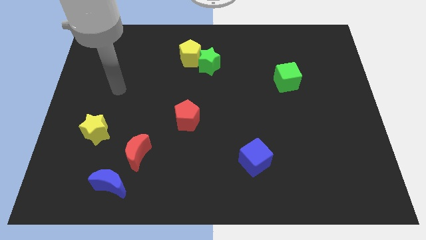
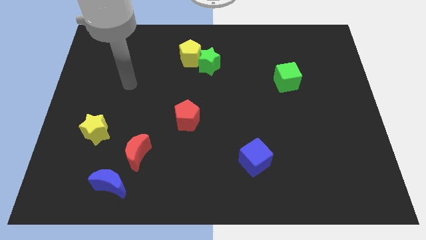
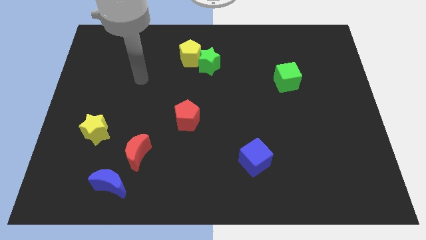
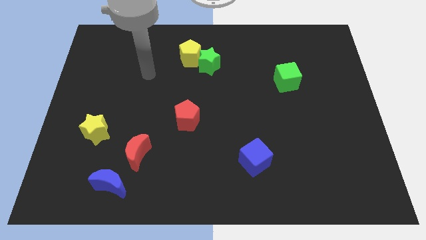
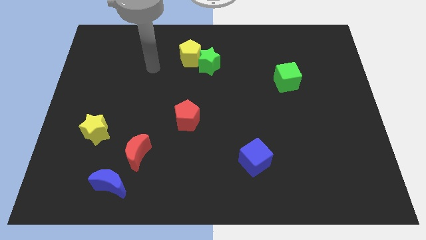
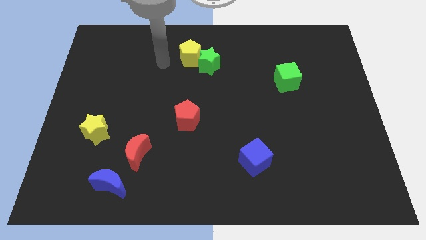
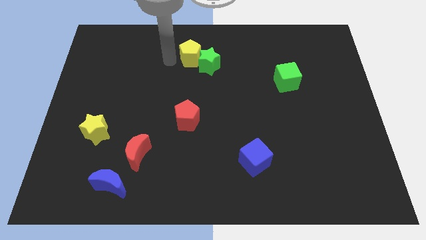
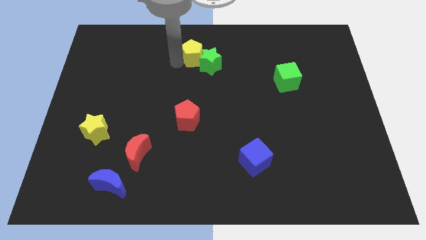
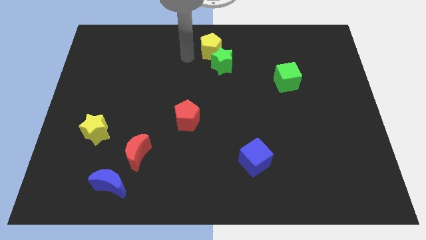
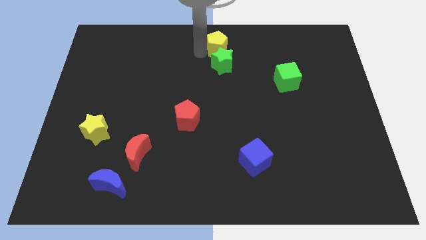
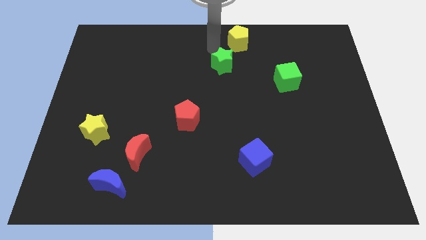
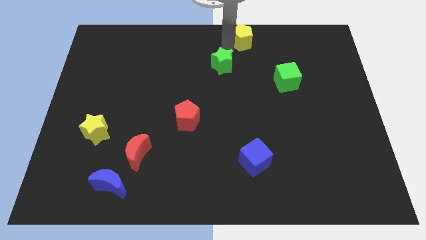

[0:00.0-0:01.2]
pull the green star apart from the yellow pentagon

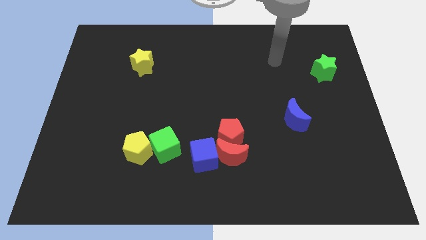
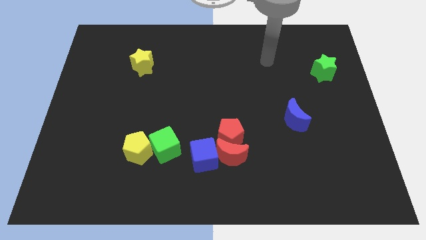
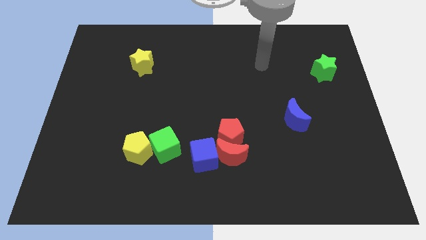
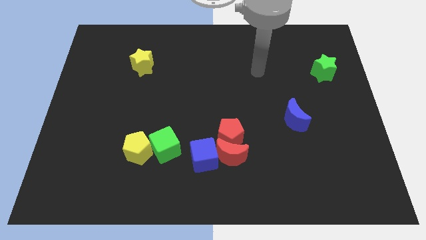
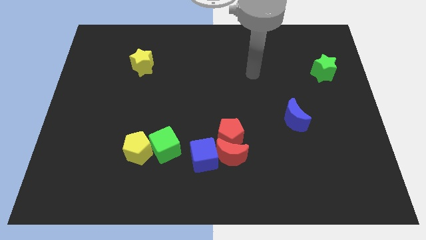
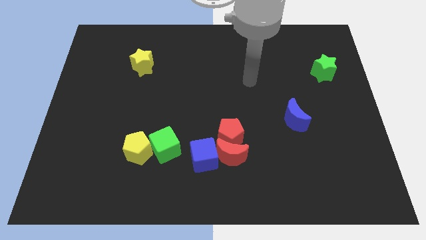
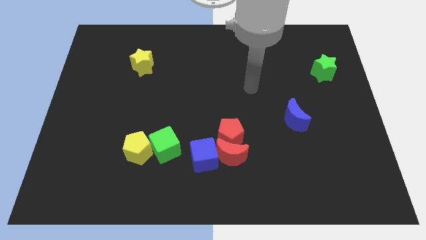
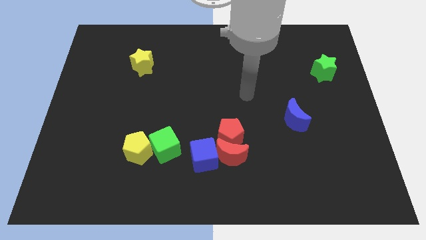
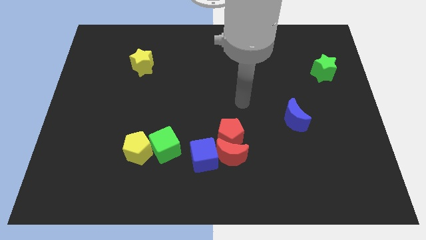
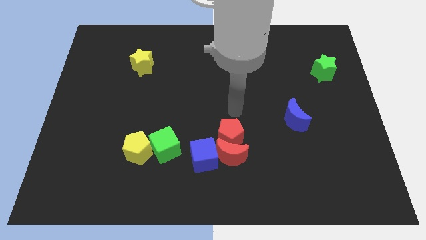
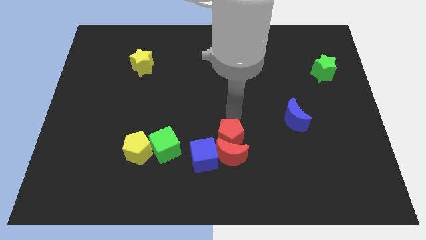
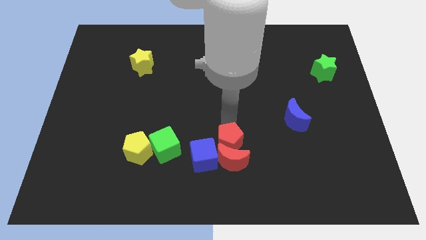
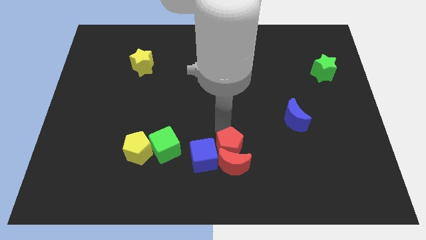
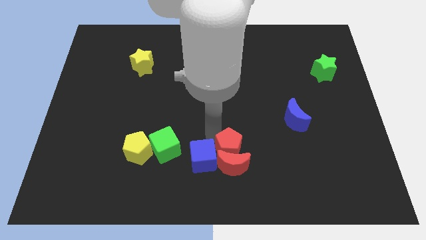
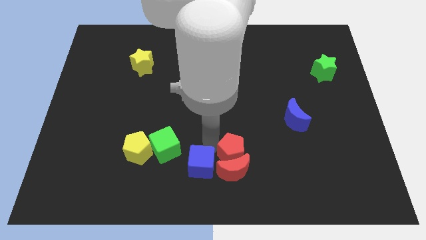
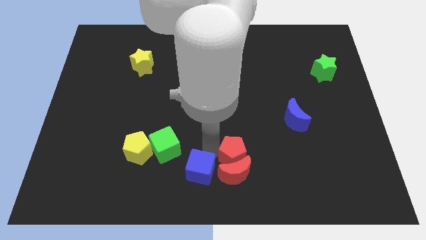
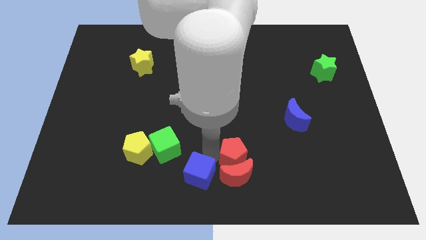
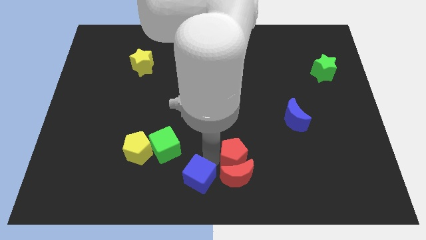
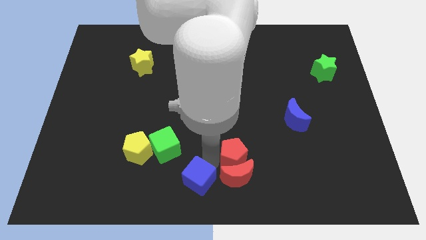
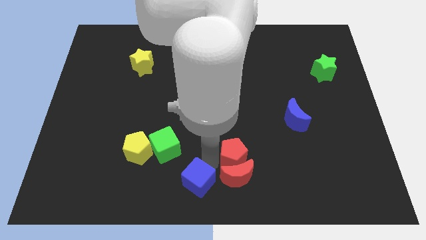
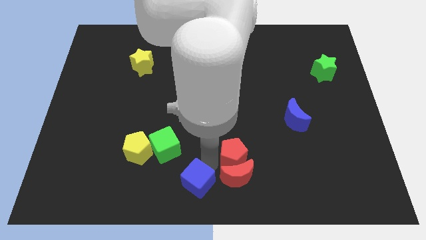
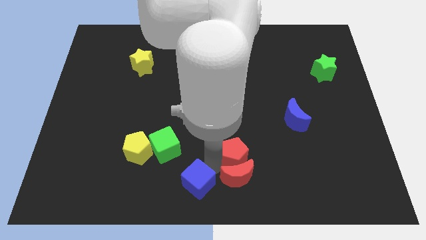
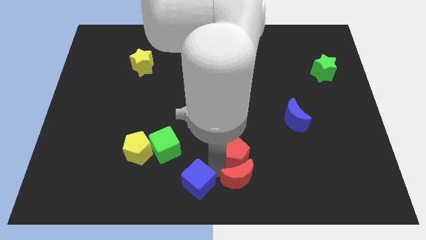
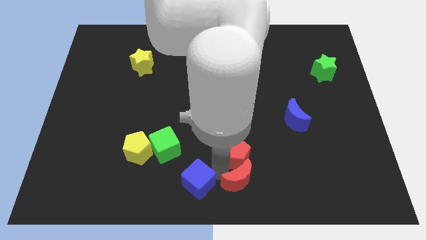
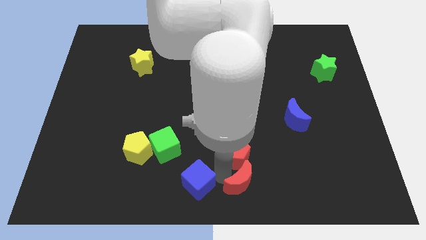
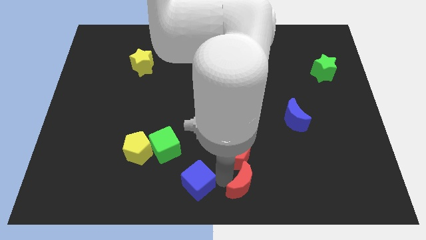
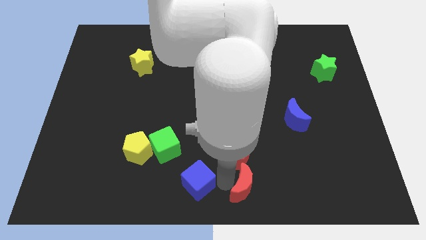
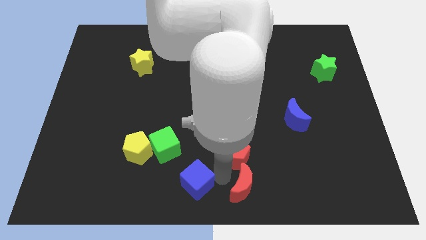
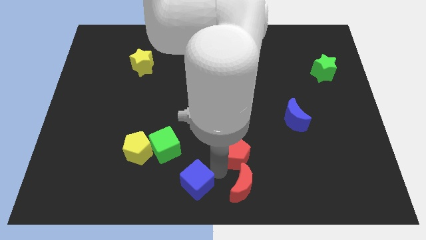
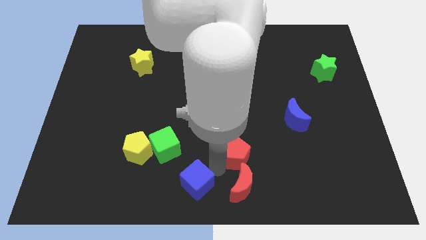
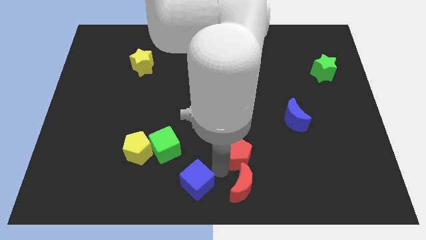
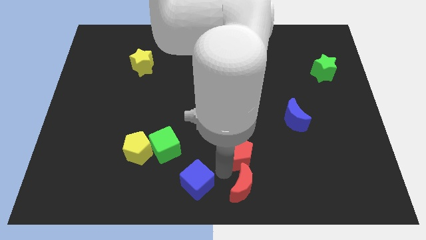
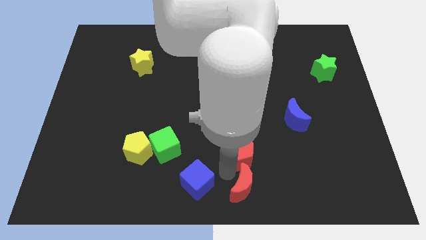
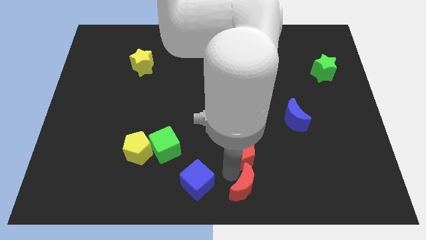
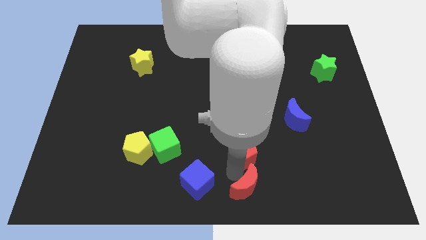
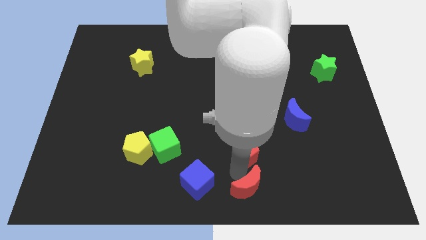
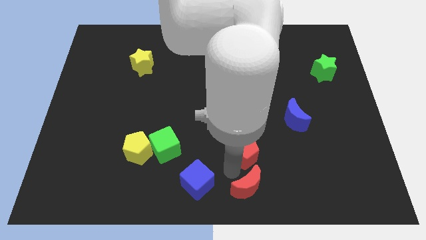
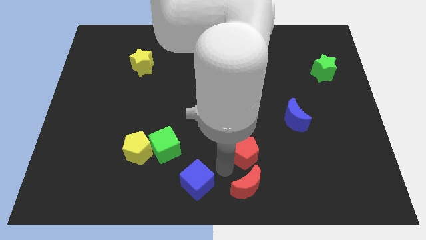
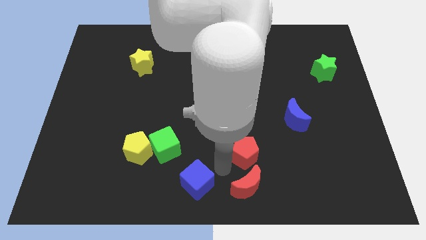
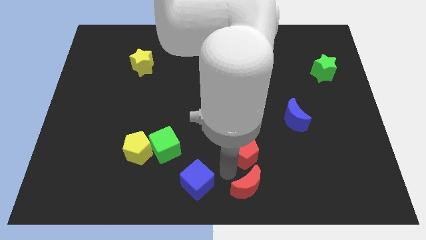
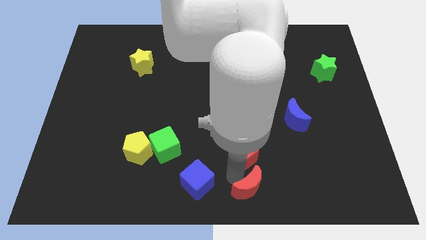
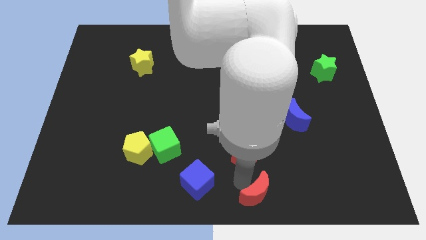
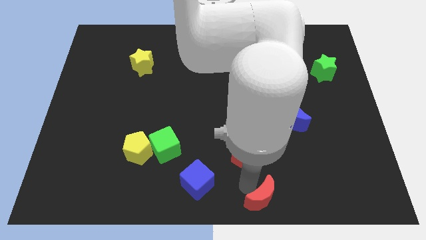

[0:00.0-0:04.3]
move the red moon away from the red pentagon and blue cube

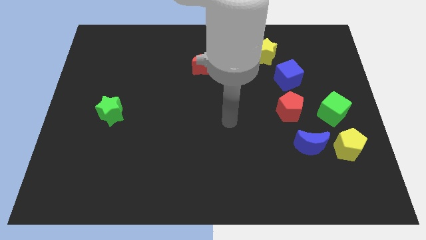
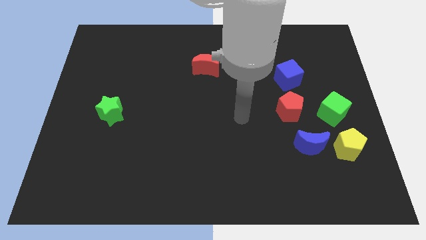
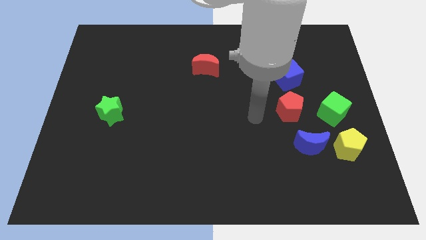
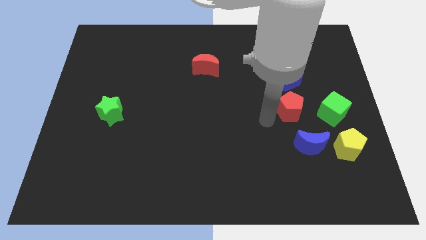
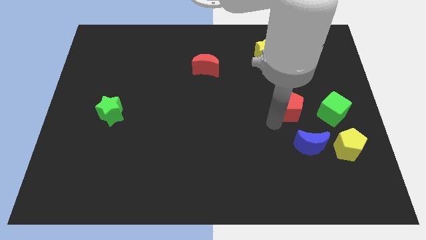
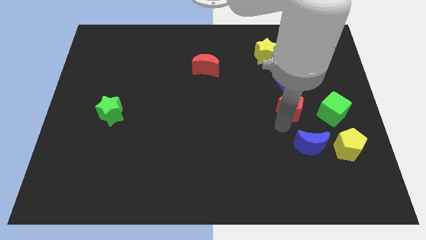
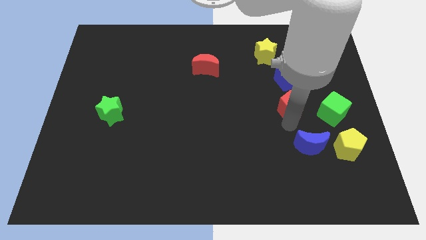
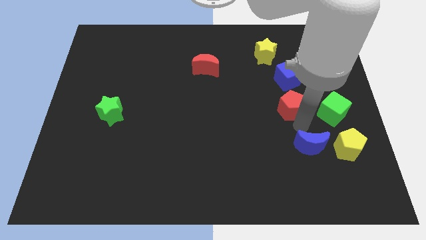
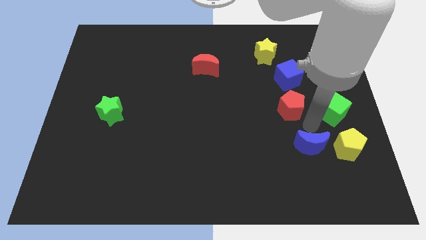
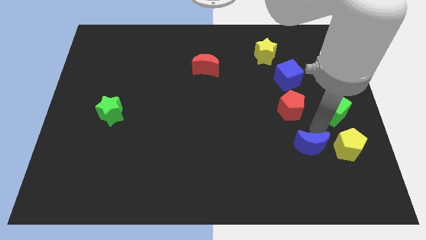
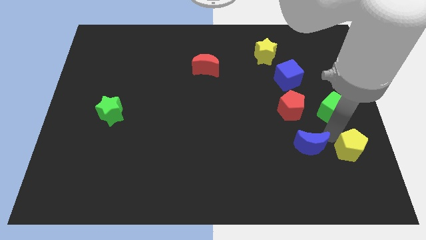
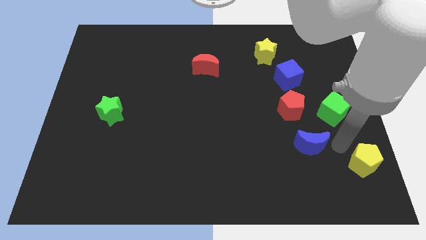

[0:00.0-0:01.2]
separate the blue moon from the yellow pentagon

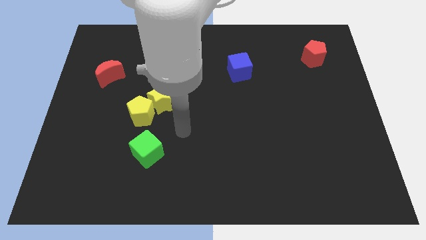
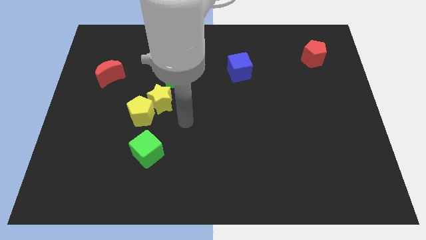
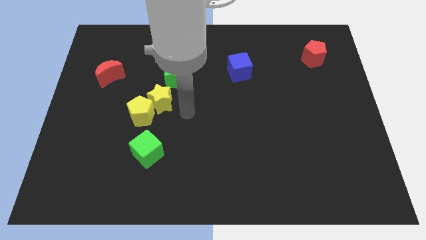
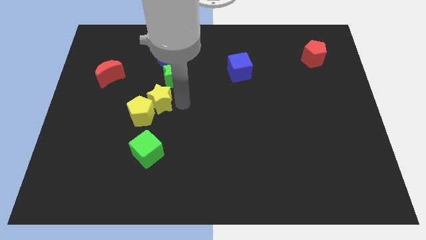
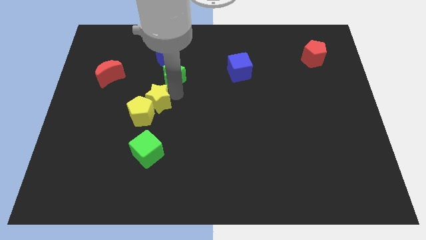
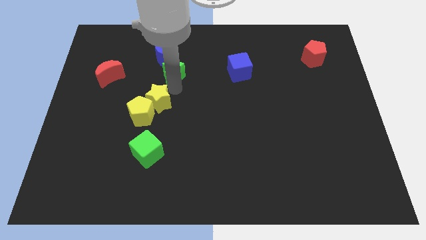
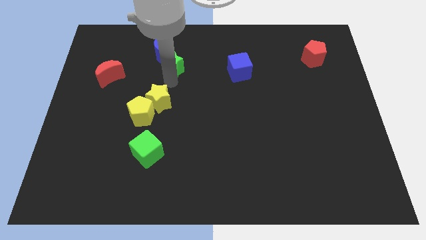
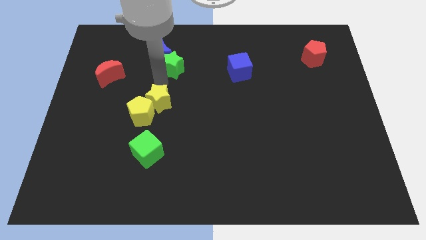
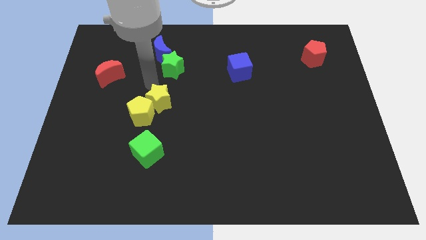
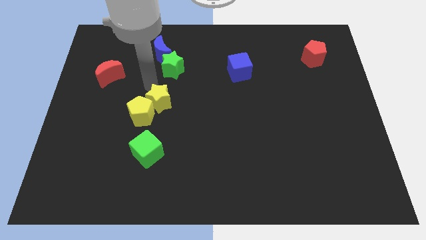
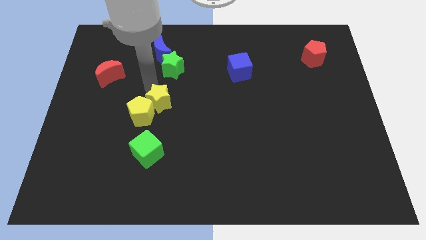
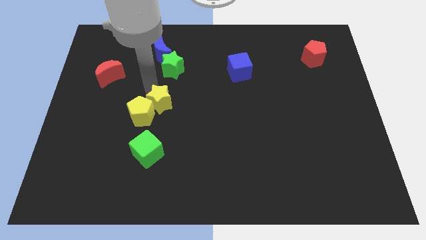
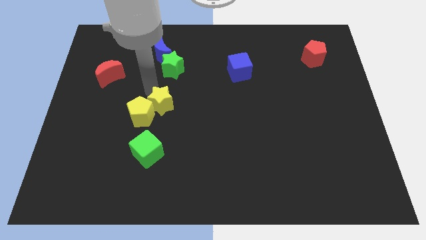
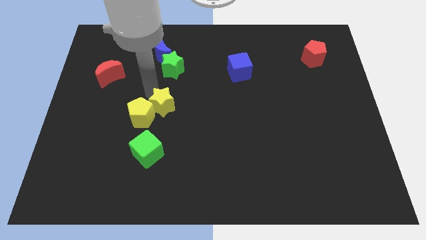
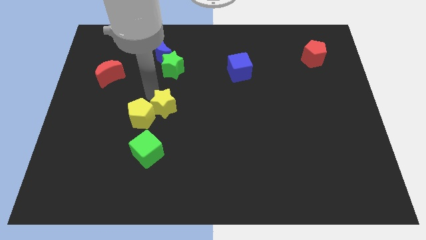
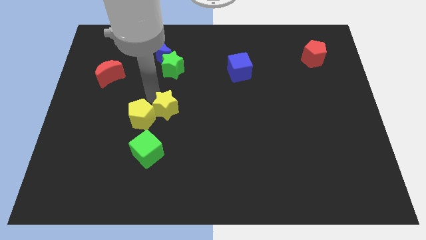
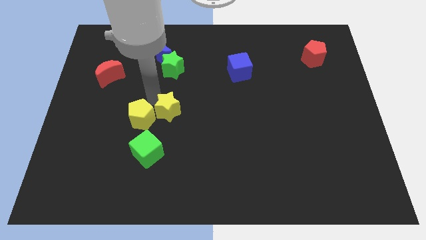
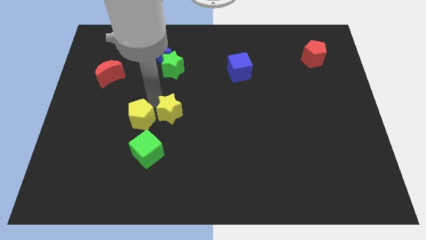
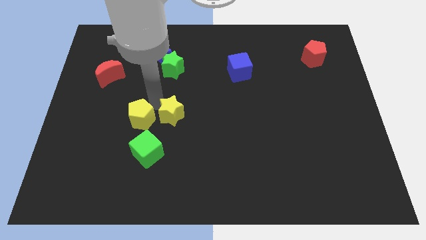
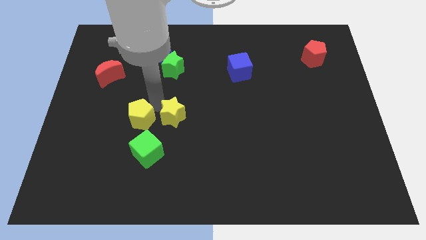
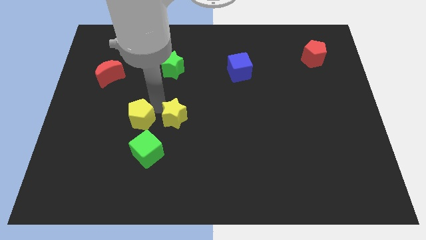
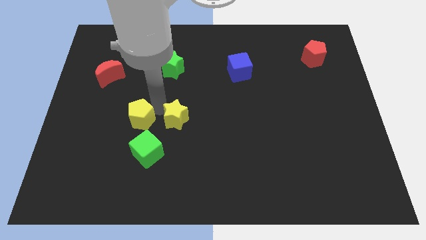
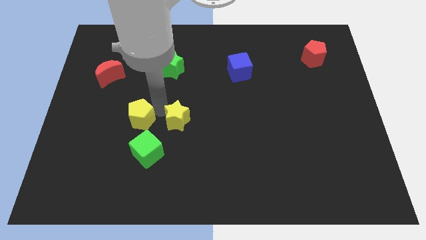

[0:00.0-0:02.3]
pull the yellow star apart from the yellow pentagon and green star

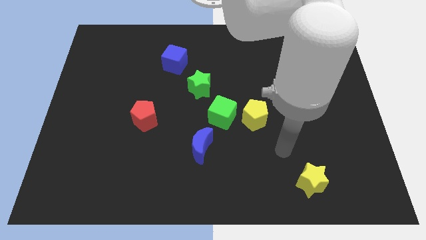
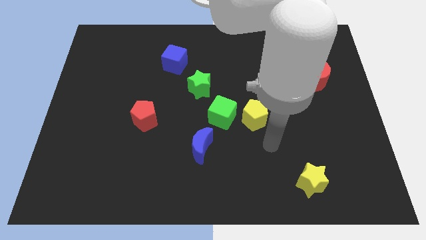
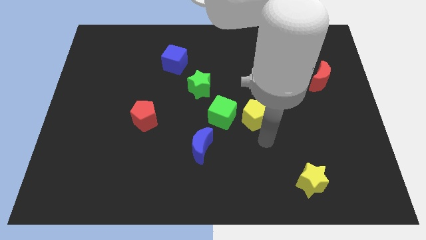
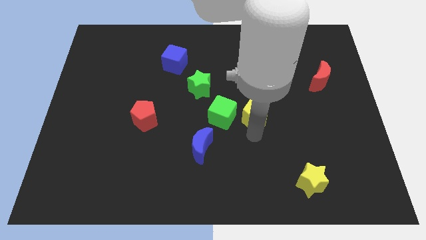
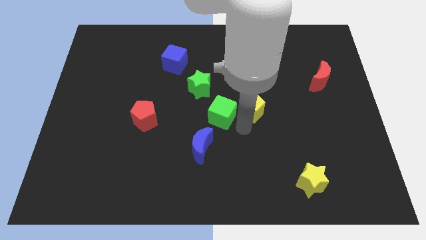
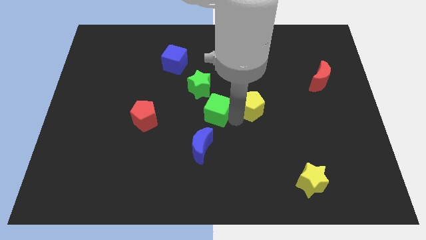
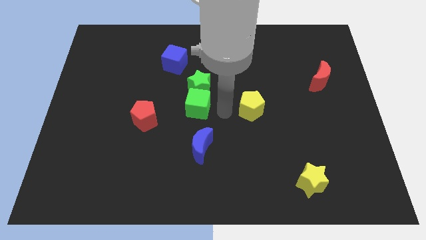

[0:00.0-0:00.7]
separate the yellow pentagon from the green cube
